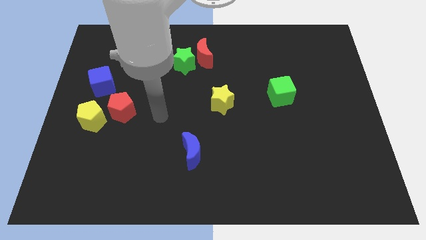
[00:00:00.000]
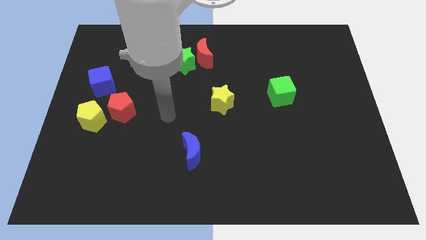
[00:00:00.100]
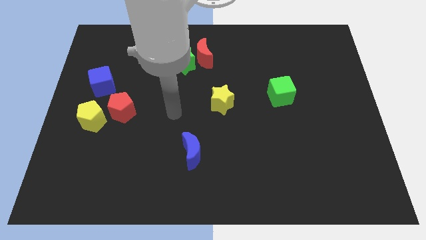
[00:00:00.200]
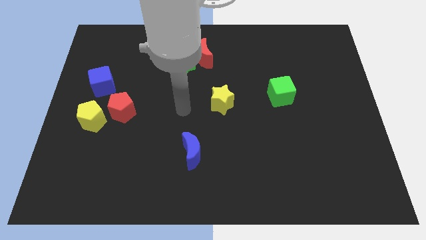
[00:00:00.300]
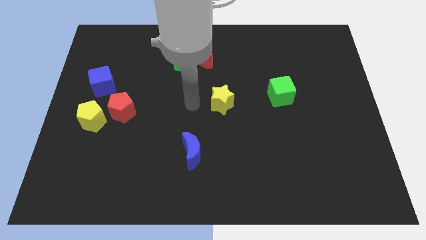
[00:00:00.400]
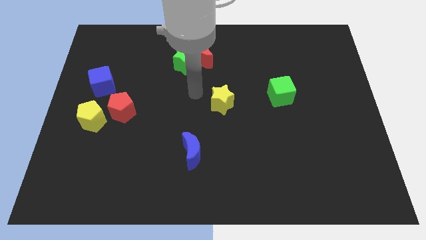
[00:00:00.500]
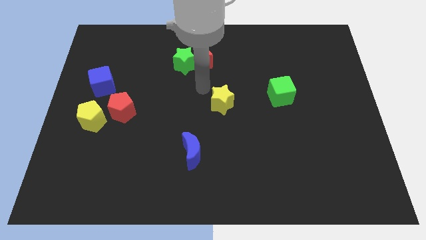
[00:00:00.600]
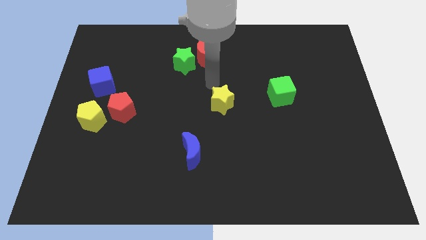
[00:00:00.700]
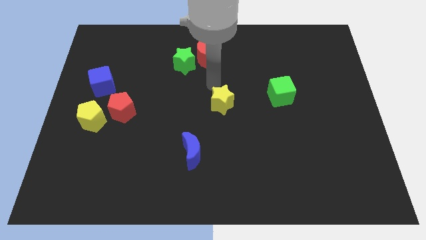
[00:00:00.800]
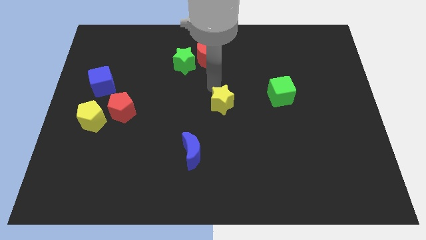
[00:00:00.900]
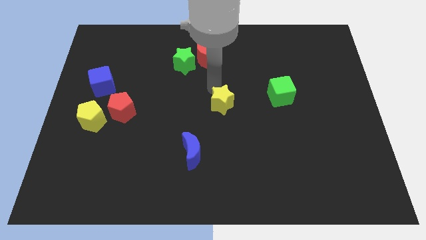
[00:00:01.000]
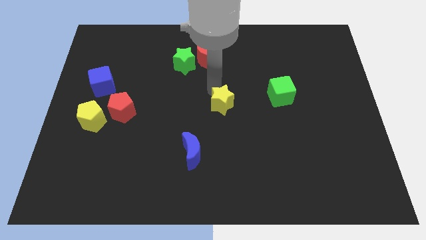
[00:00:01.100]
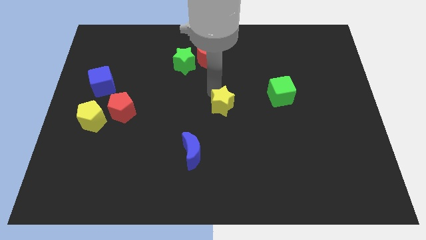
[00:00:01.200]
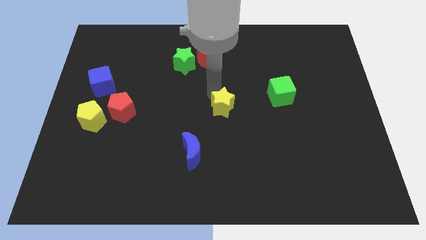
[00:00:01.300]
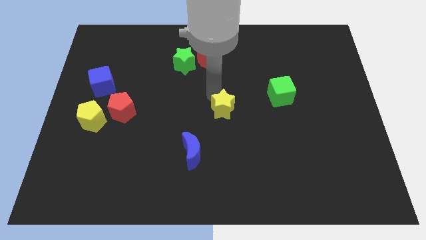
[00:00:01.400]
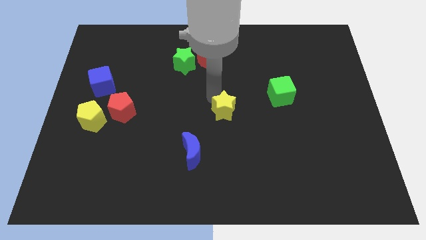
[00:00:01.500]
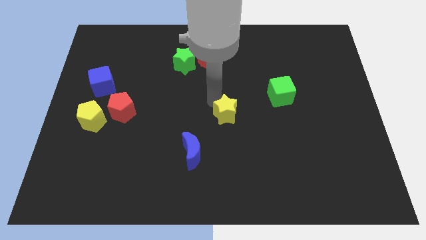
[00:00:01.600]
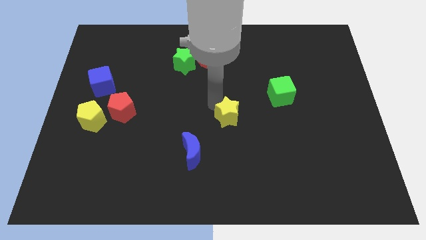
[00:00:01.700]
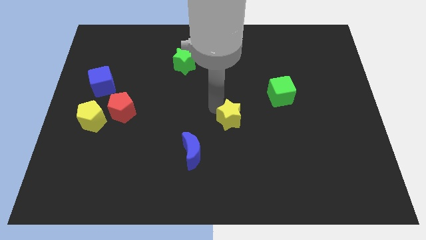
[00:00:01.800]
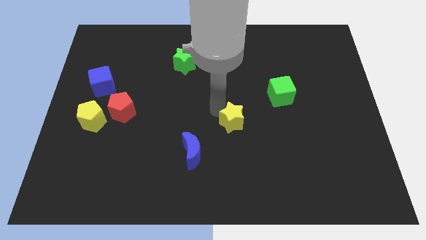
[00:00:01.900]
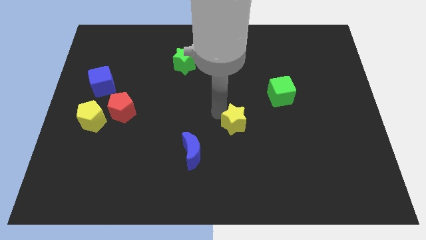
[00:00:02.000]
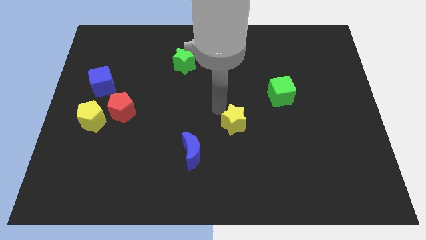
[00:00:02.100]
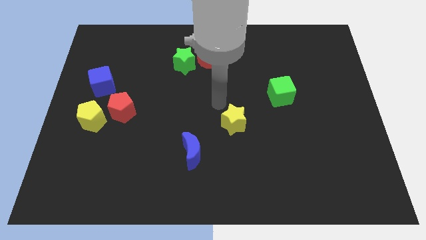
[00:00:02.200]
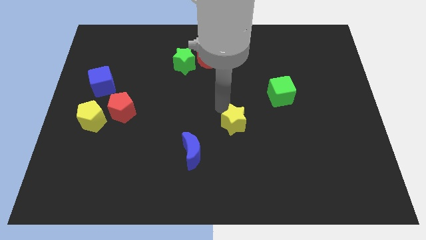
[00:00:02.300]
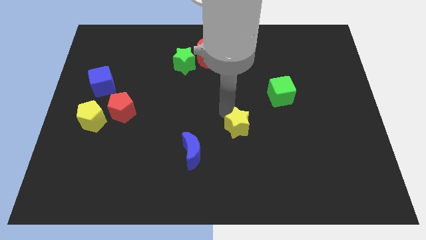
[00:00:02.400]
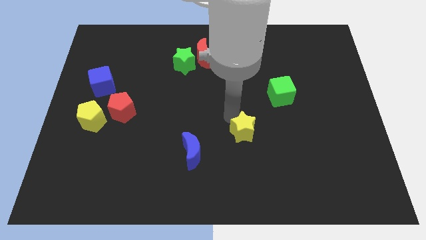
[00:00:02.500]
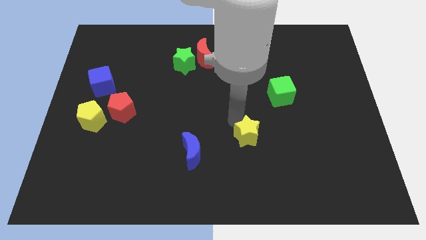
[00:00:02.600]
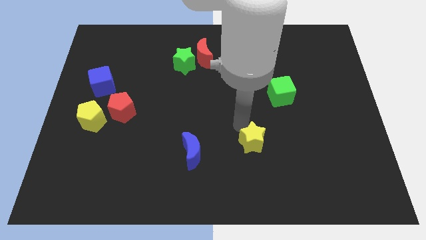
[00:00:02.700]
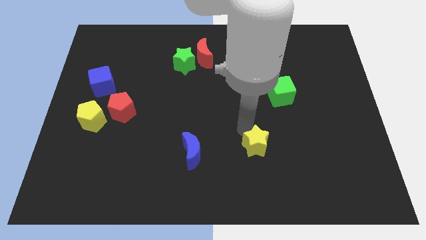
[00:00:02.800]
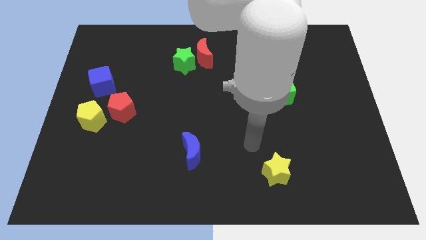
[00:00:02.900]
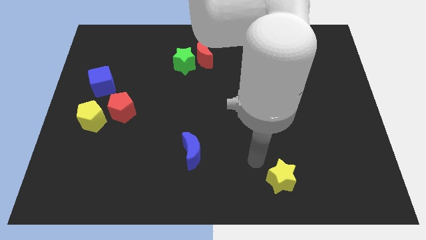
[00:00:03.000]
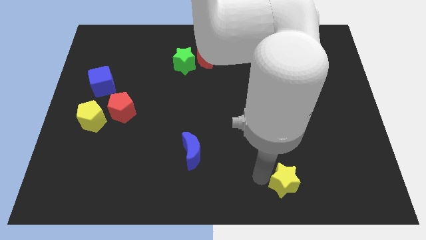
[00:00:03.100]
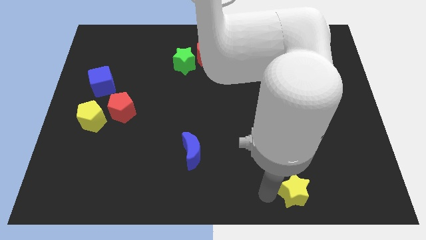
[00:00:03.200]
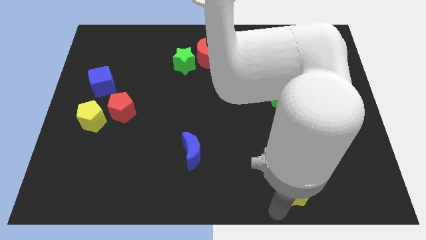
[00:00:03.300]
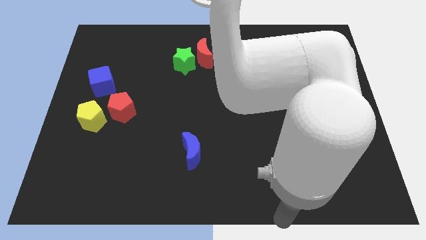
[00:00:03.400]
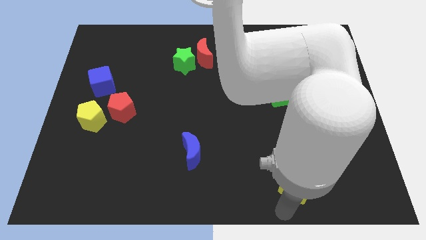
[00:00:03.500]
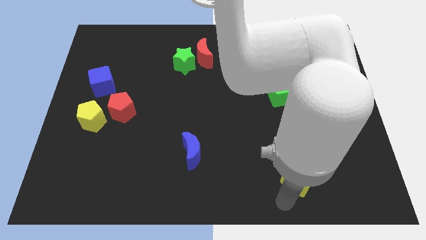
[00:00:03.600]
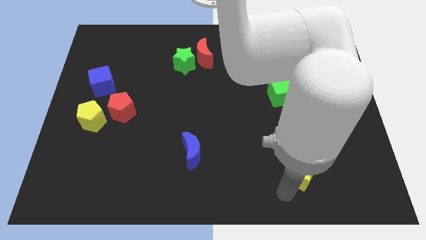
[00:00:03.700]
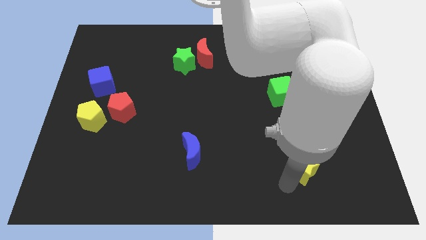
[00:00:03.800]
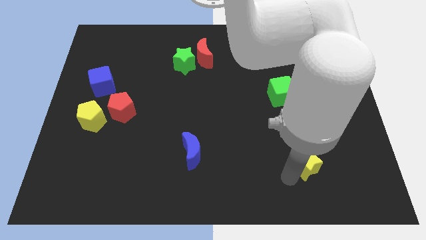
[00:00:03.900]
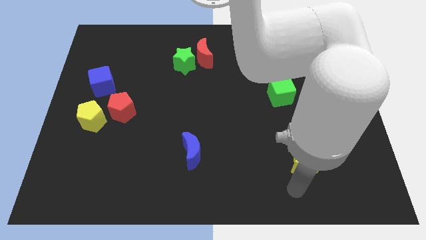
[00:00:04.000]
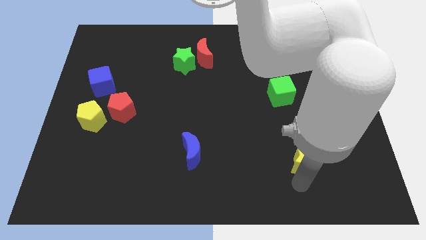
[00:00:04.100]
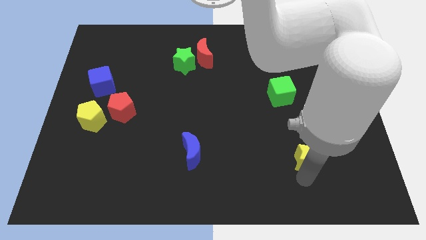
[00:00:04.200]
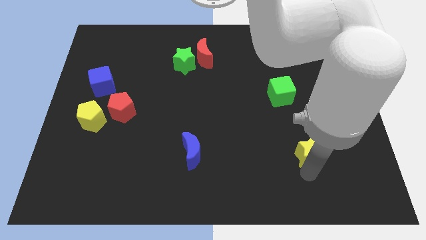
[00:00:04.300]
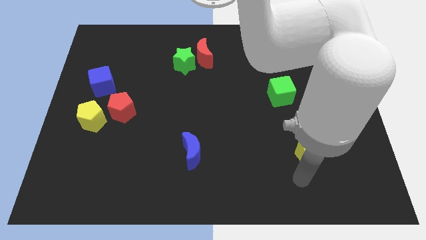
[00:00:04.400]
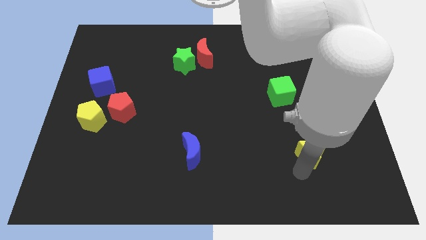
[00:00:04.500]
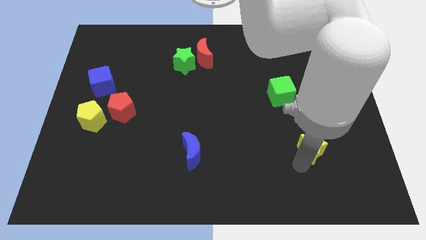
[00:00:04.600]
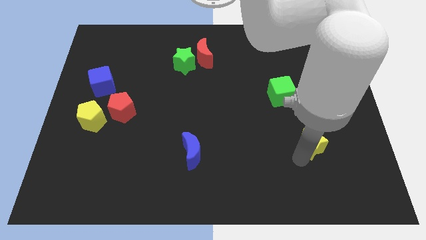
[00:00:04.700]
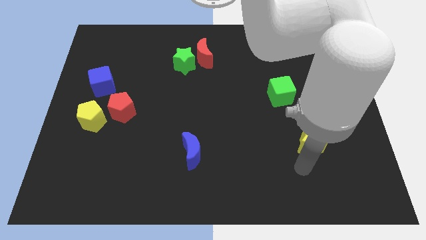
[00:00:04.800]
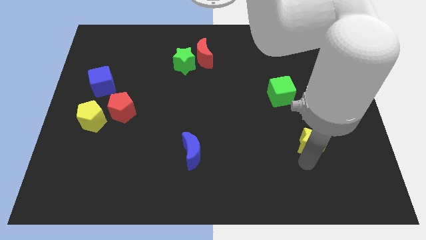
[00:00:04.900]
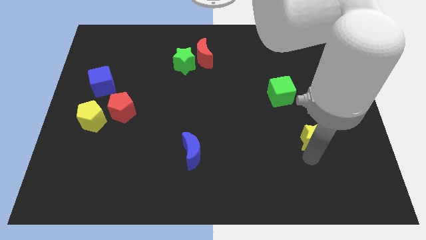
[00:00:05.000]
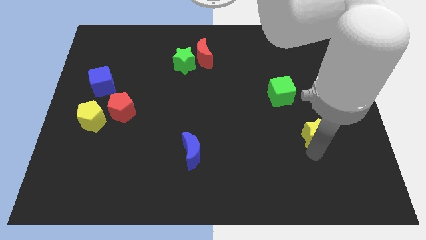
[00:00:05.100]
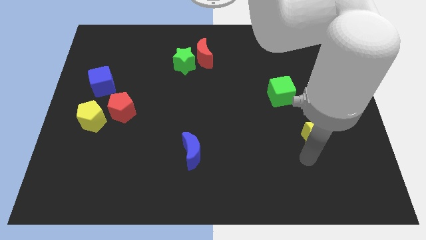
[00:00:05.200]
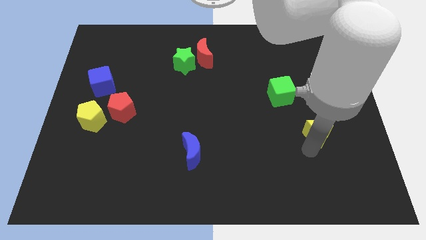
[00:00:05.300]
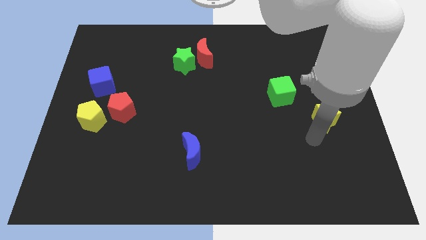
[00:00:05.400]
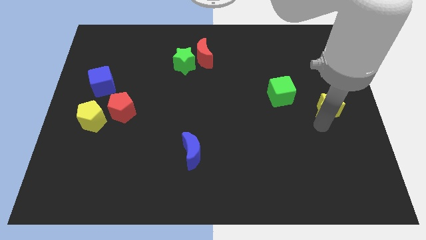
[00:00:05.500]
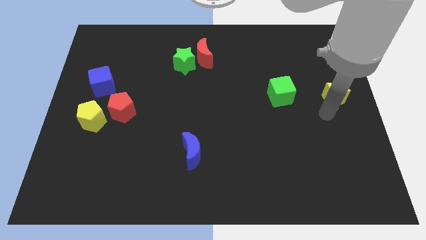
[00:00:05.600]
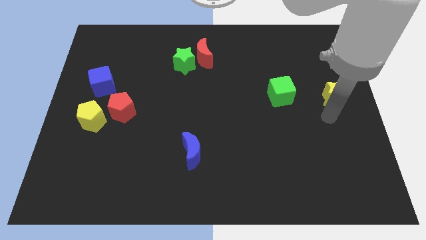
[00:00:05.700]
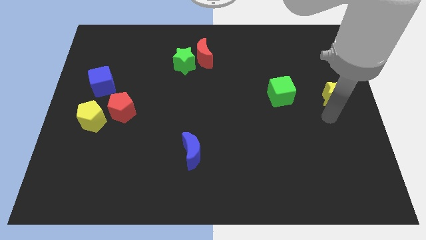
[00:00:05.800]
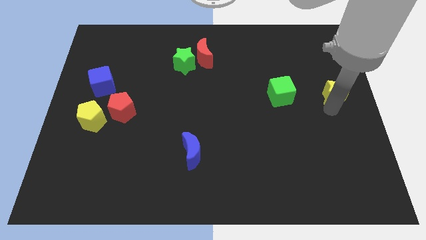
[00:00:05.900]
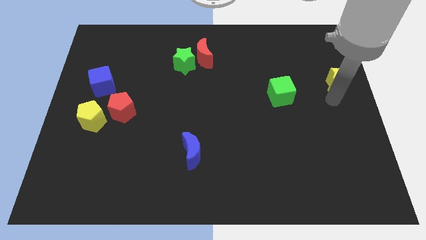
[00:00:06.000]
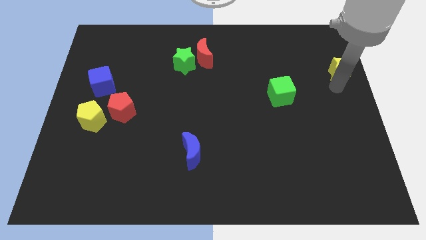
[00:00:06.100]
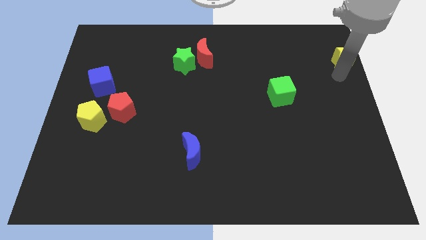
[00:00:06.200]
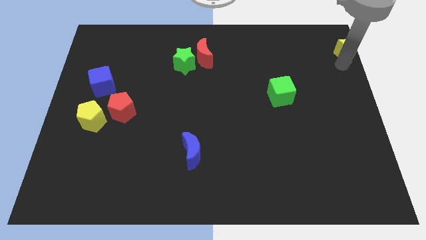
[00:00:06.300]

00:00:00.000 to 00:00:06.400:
push the yellow star to the top right of the board

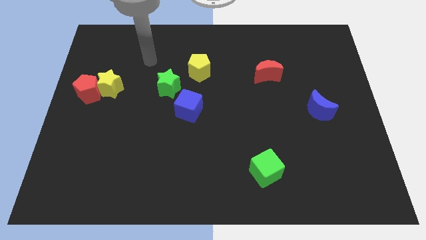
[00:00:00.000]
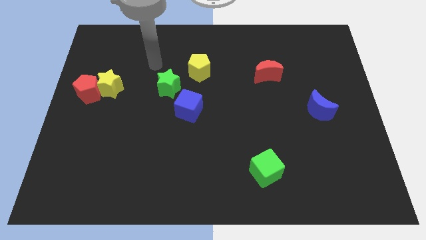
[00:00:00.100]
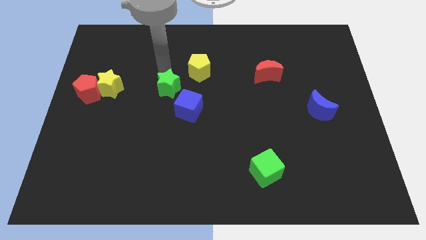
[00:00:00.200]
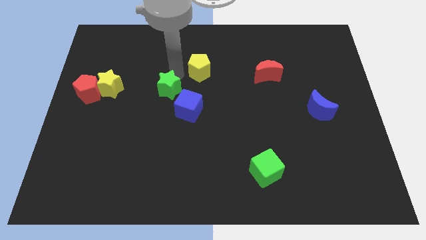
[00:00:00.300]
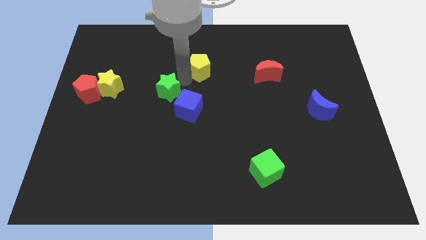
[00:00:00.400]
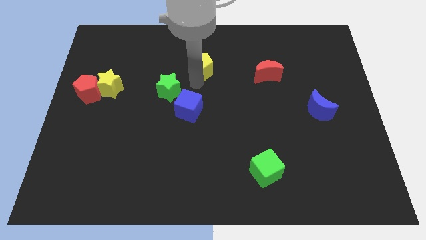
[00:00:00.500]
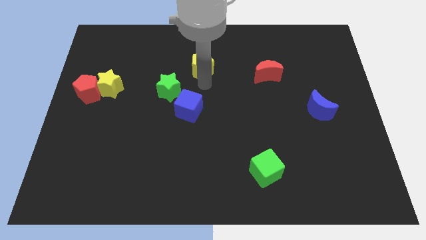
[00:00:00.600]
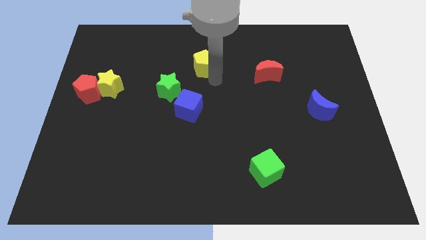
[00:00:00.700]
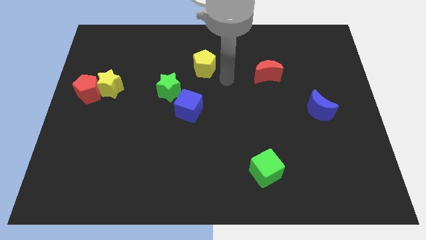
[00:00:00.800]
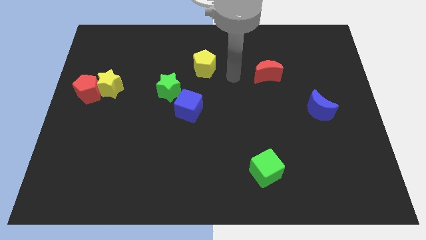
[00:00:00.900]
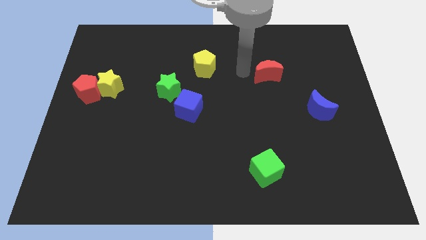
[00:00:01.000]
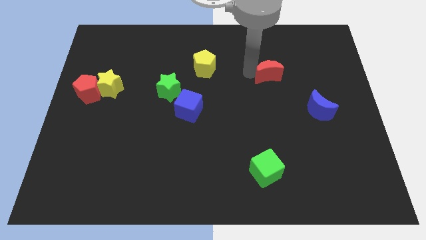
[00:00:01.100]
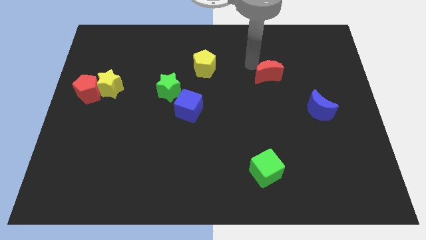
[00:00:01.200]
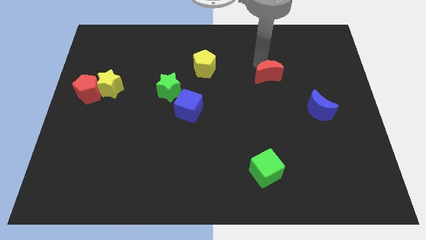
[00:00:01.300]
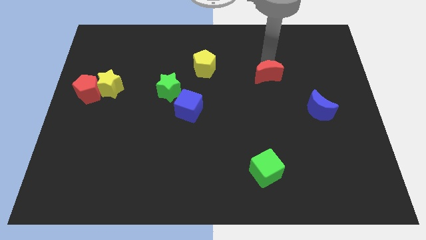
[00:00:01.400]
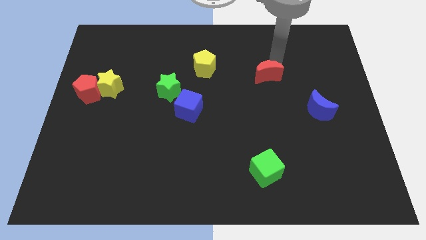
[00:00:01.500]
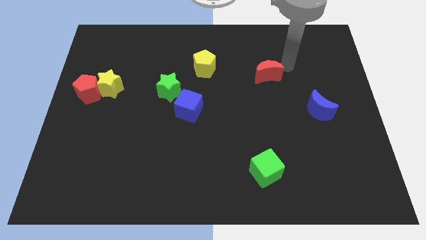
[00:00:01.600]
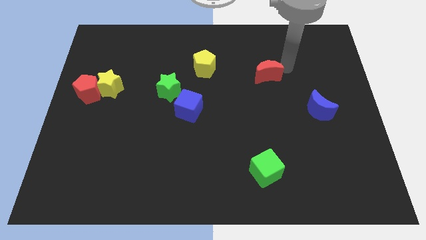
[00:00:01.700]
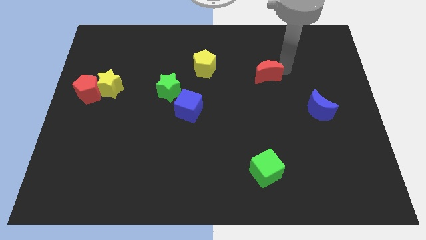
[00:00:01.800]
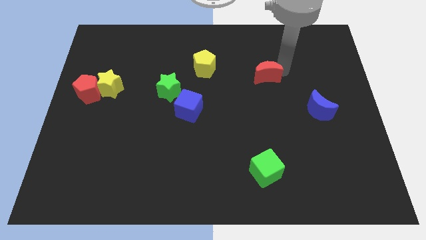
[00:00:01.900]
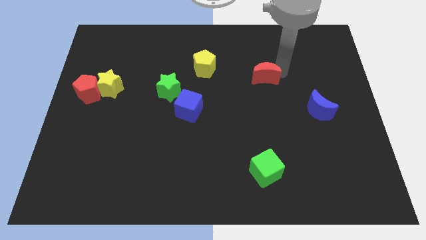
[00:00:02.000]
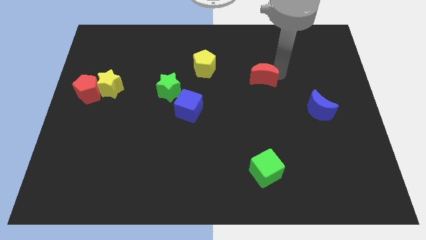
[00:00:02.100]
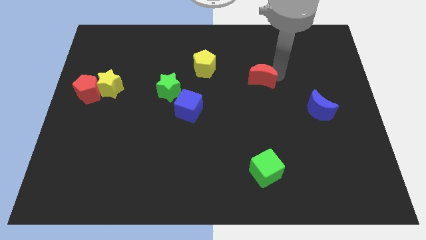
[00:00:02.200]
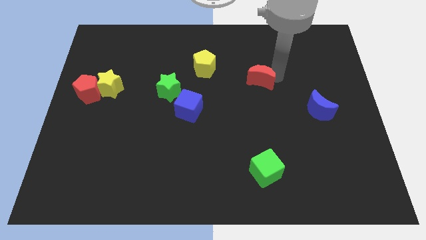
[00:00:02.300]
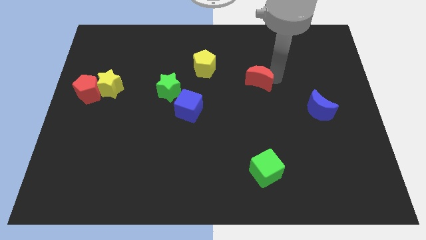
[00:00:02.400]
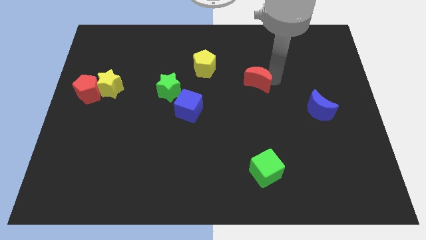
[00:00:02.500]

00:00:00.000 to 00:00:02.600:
slide the red moon to the center of the board
